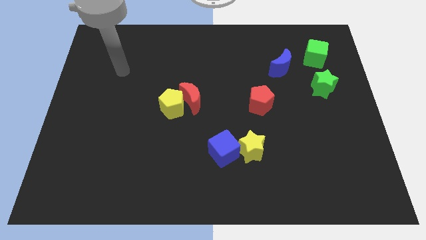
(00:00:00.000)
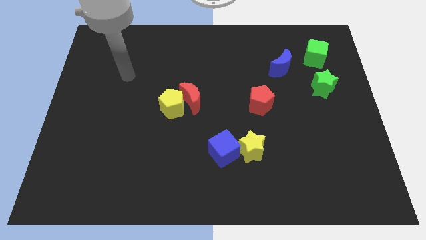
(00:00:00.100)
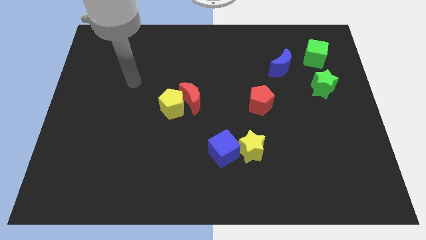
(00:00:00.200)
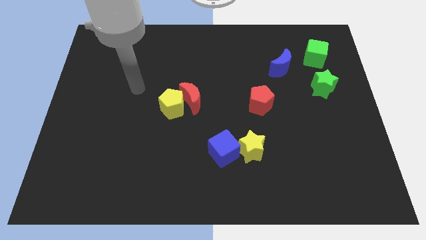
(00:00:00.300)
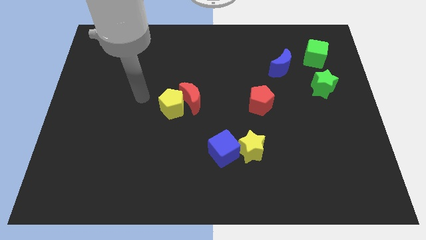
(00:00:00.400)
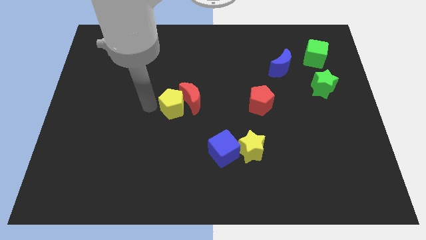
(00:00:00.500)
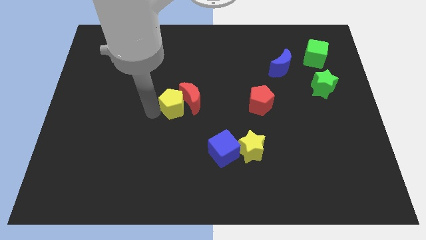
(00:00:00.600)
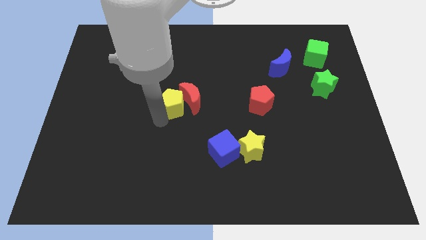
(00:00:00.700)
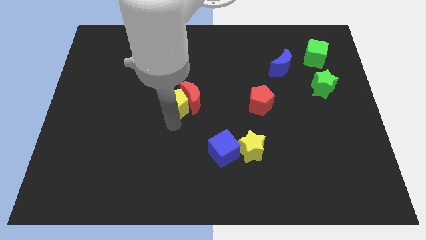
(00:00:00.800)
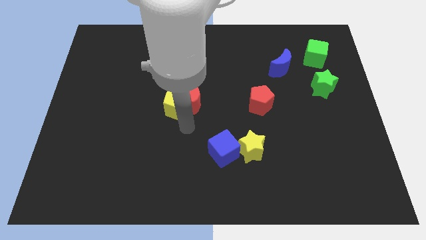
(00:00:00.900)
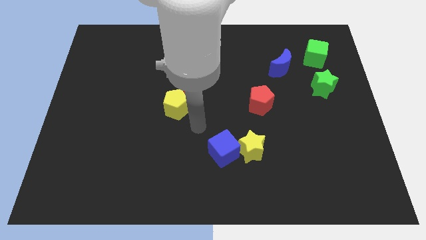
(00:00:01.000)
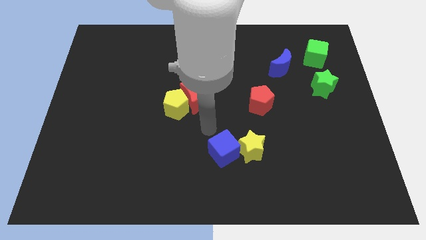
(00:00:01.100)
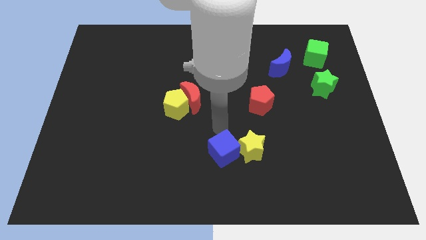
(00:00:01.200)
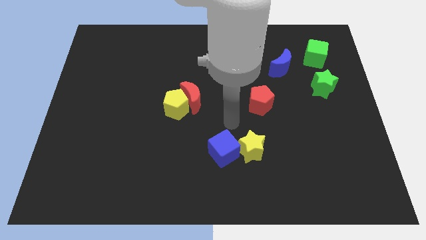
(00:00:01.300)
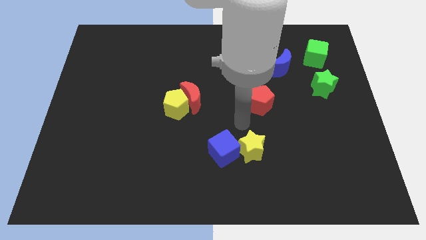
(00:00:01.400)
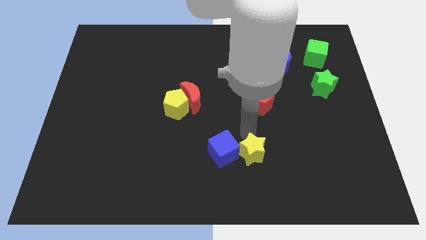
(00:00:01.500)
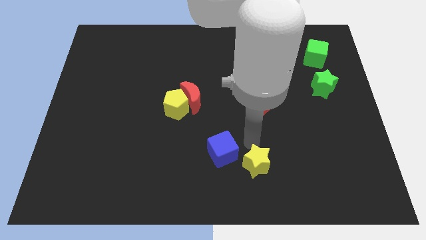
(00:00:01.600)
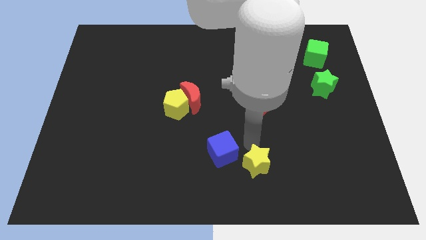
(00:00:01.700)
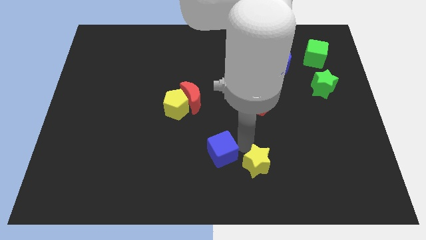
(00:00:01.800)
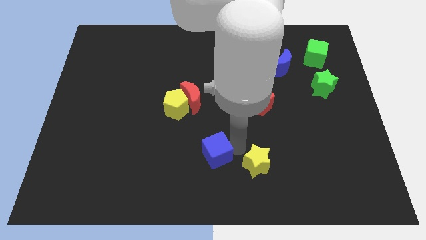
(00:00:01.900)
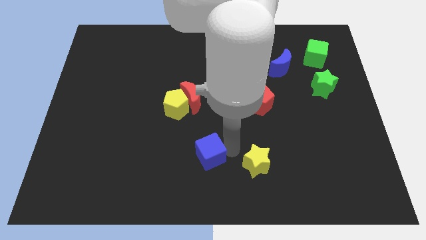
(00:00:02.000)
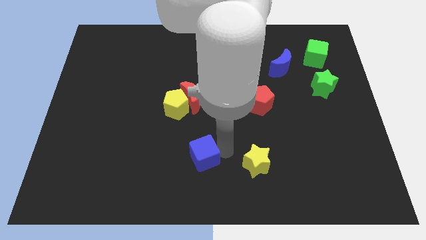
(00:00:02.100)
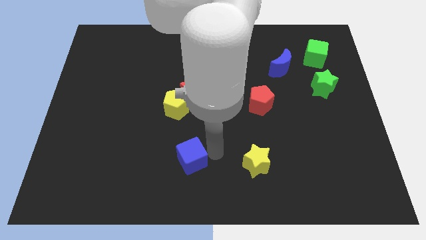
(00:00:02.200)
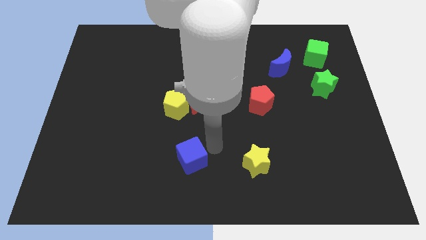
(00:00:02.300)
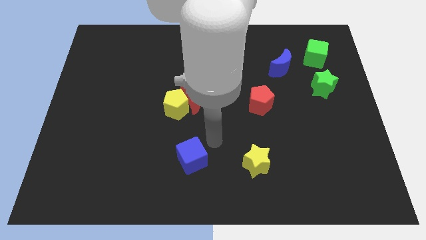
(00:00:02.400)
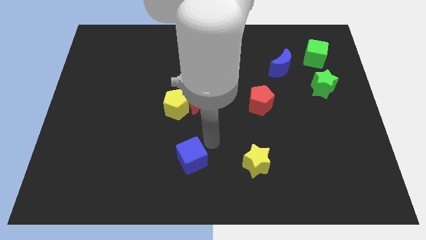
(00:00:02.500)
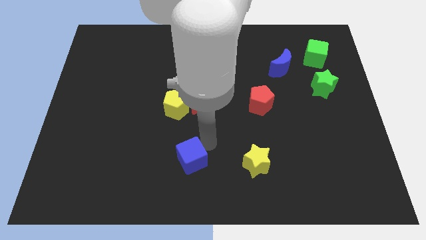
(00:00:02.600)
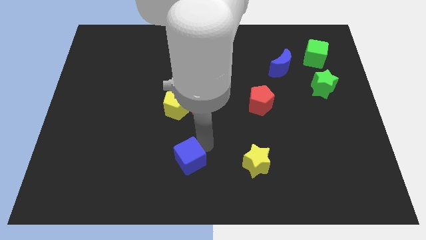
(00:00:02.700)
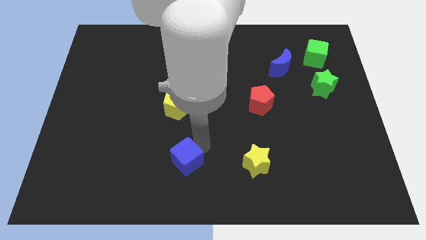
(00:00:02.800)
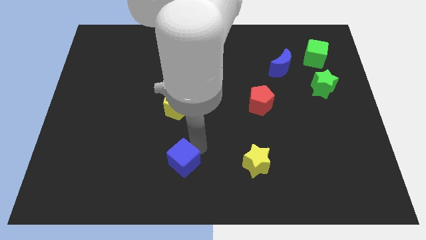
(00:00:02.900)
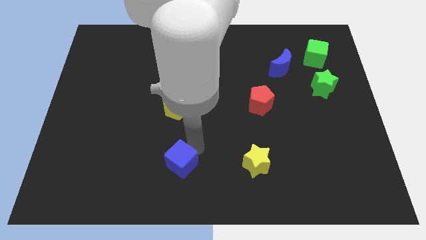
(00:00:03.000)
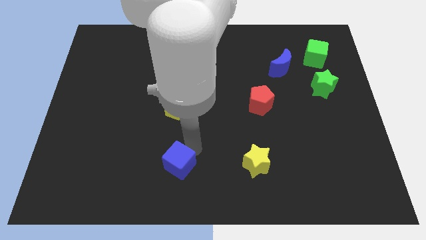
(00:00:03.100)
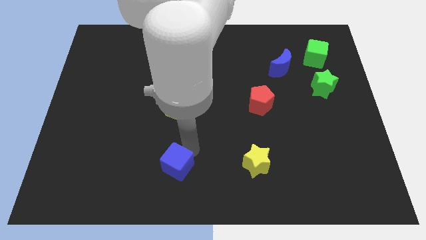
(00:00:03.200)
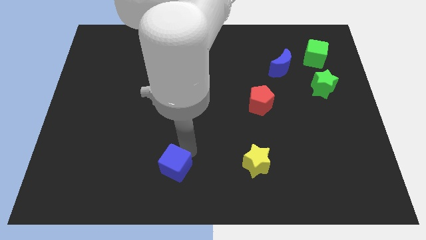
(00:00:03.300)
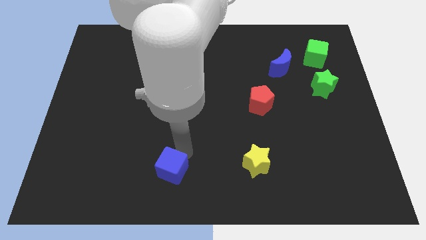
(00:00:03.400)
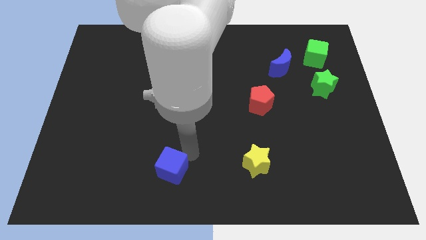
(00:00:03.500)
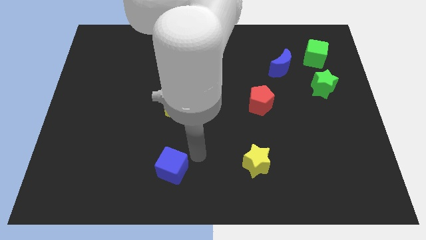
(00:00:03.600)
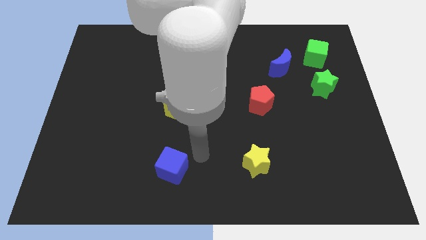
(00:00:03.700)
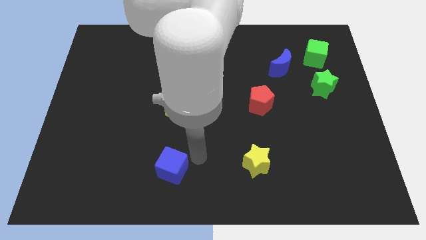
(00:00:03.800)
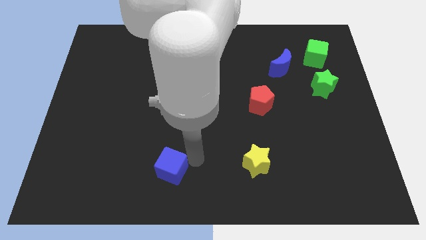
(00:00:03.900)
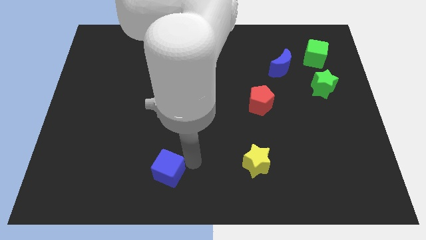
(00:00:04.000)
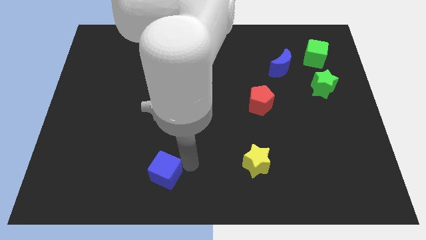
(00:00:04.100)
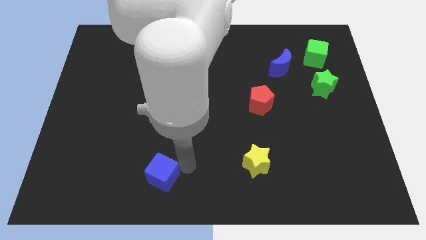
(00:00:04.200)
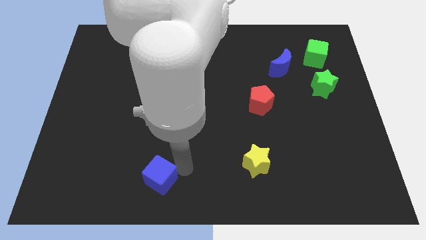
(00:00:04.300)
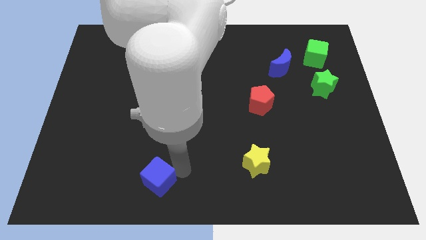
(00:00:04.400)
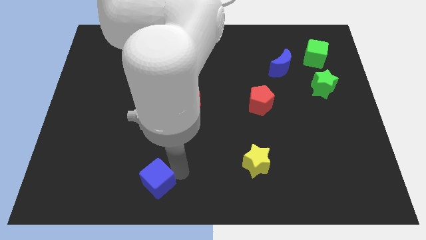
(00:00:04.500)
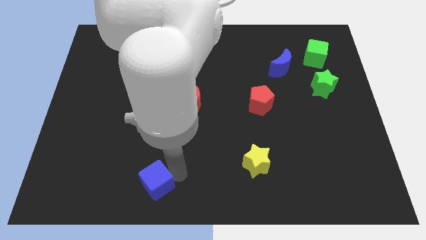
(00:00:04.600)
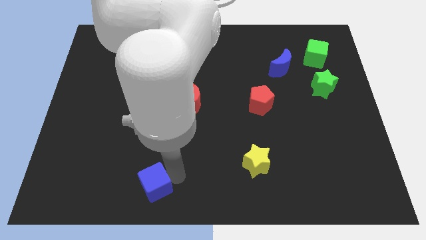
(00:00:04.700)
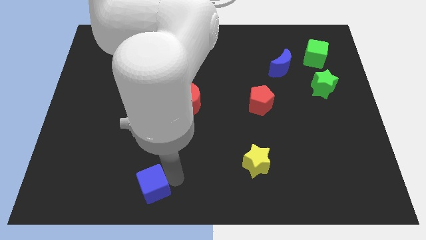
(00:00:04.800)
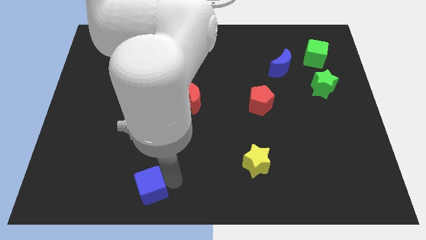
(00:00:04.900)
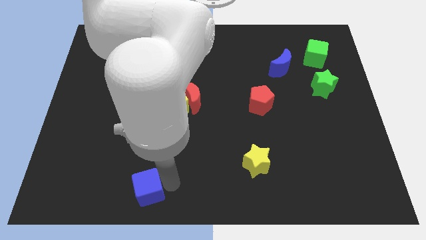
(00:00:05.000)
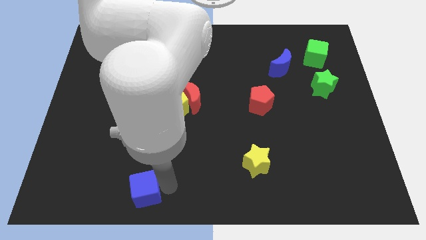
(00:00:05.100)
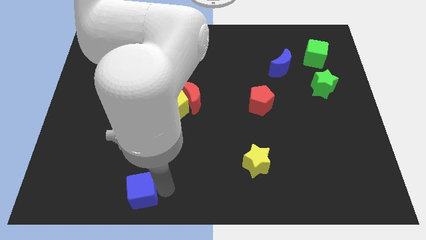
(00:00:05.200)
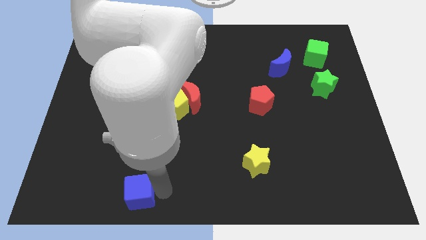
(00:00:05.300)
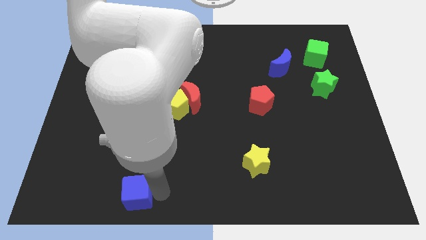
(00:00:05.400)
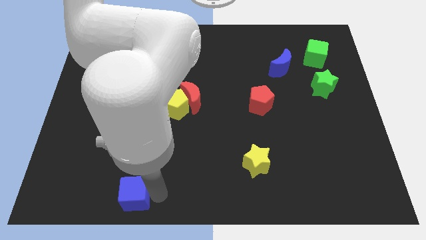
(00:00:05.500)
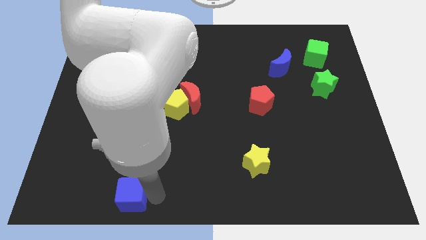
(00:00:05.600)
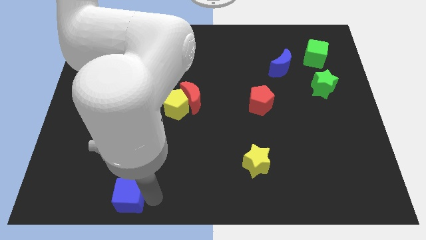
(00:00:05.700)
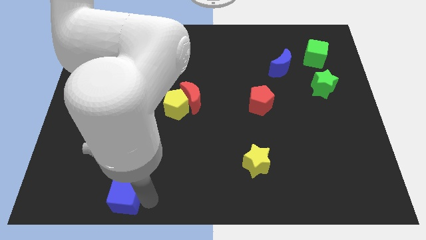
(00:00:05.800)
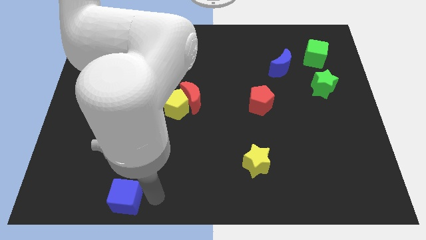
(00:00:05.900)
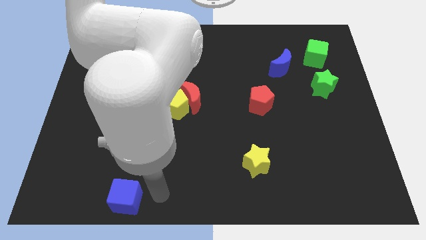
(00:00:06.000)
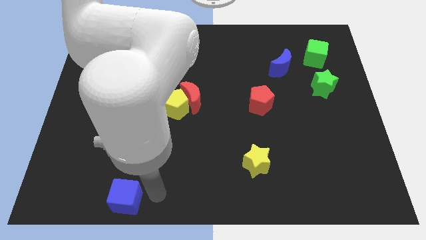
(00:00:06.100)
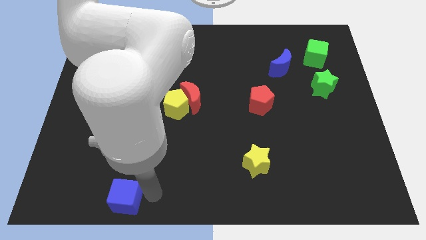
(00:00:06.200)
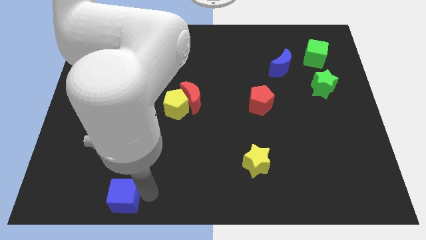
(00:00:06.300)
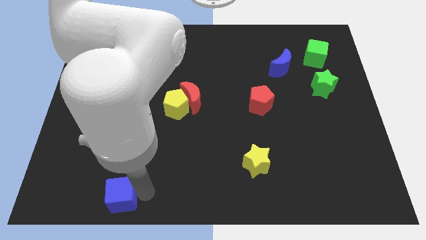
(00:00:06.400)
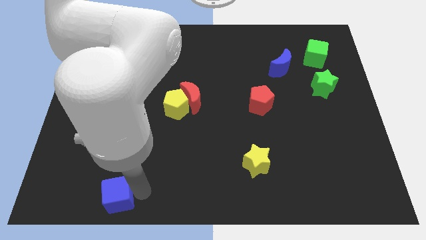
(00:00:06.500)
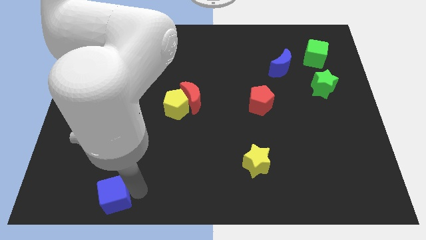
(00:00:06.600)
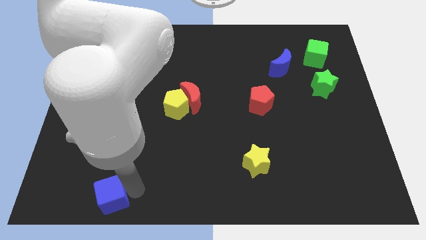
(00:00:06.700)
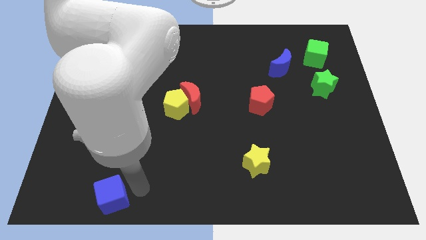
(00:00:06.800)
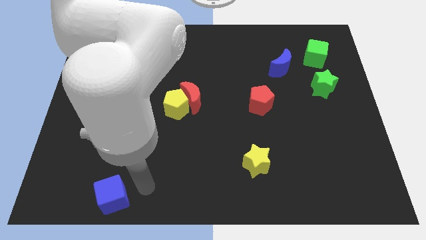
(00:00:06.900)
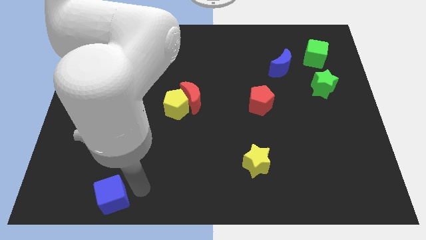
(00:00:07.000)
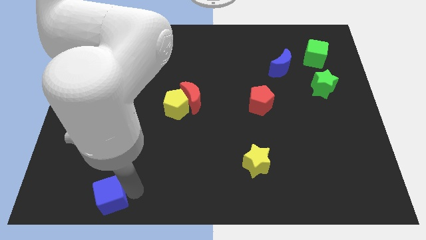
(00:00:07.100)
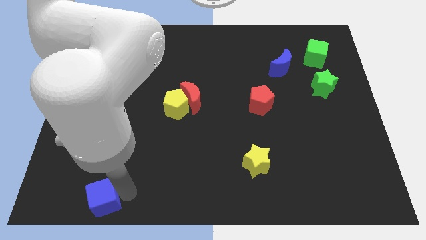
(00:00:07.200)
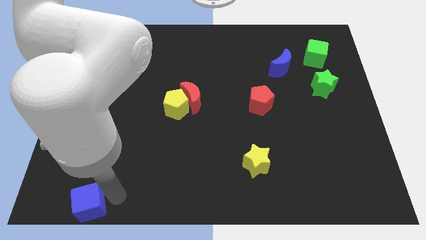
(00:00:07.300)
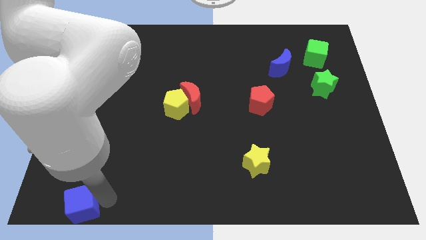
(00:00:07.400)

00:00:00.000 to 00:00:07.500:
slide the blue cube to the bottom left corner
